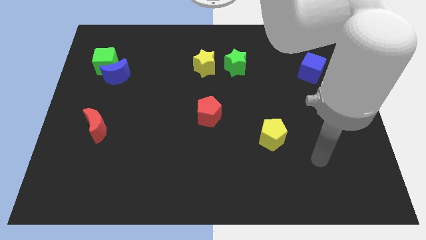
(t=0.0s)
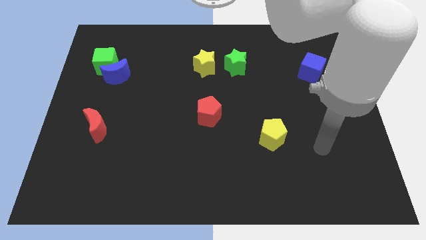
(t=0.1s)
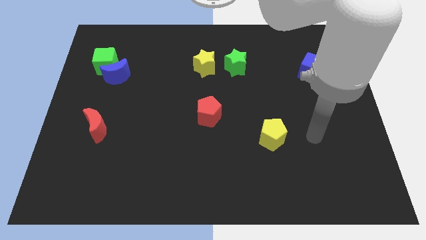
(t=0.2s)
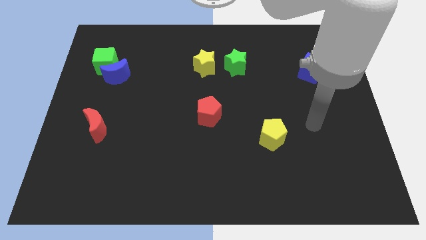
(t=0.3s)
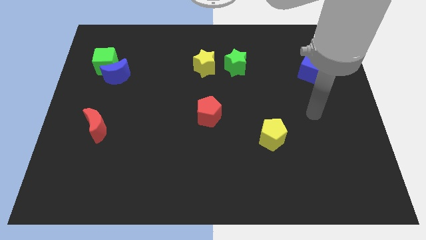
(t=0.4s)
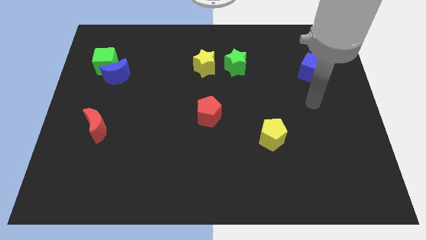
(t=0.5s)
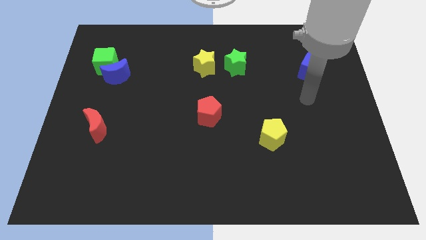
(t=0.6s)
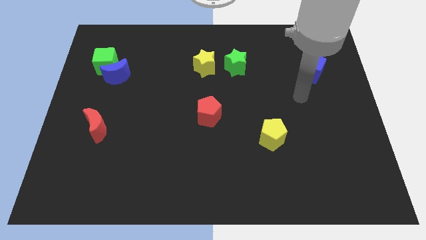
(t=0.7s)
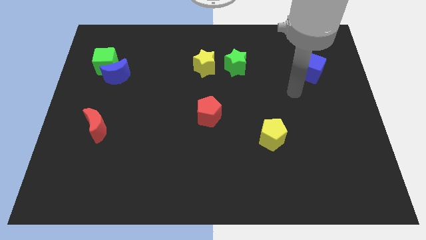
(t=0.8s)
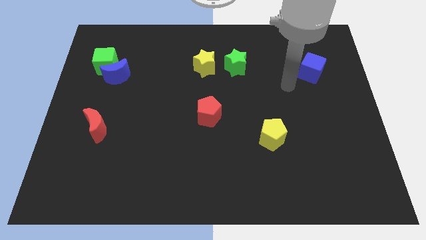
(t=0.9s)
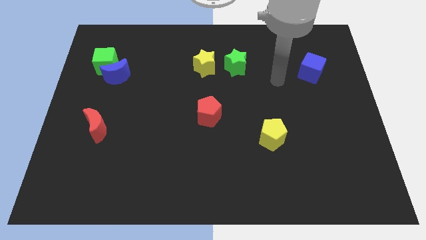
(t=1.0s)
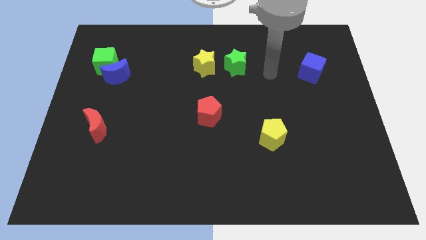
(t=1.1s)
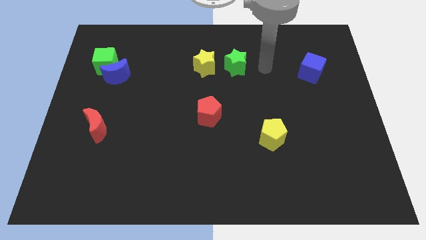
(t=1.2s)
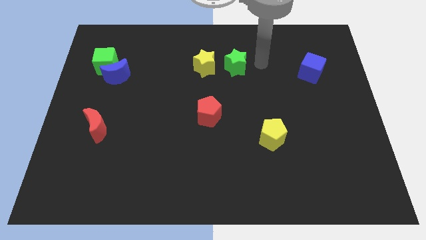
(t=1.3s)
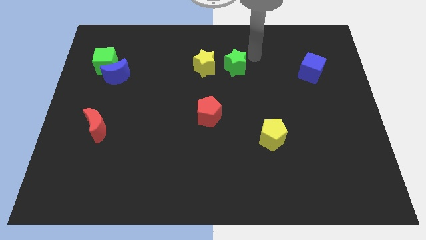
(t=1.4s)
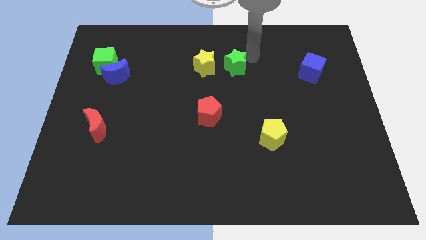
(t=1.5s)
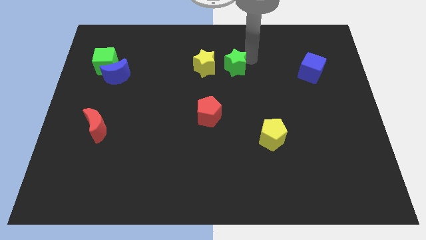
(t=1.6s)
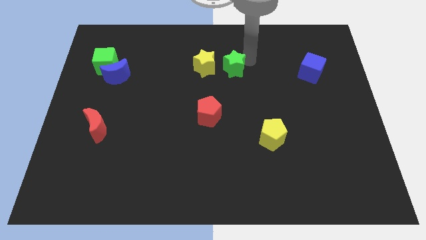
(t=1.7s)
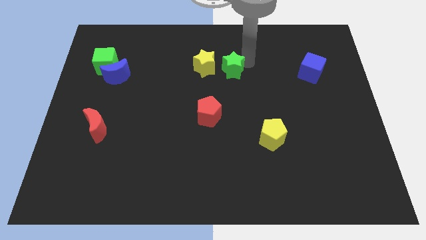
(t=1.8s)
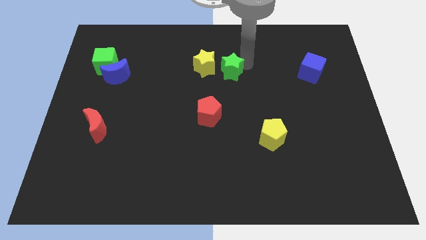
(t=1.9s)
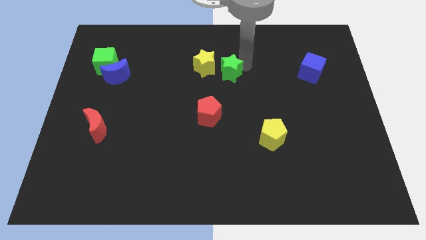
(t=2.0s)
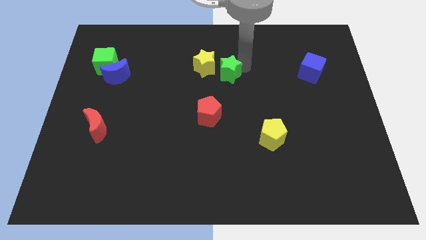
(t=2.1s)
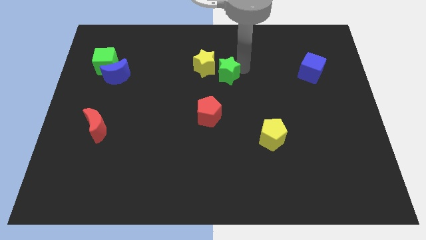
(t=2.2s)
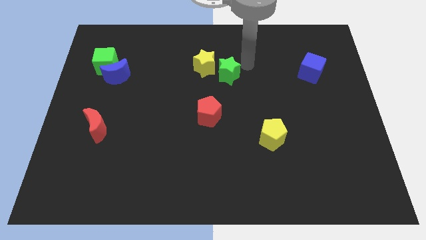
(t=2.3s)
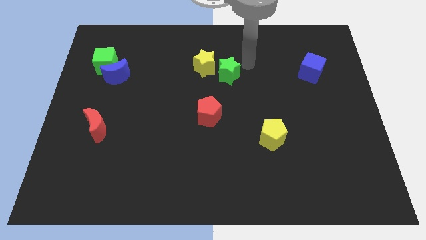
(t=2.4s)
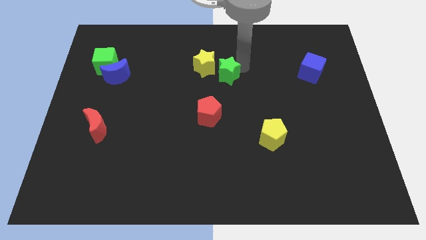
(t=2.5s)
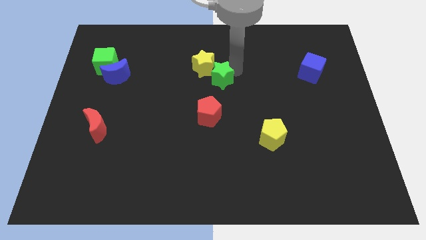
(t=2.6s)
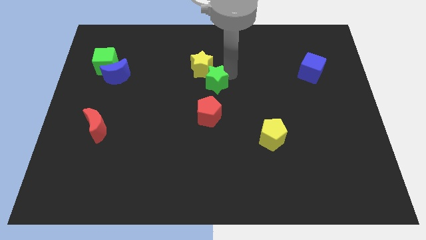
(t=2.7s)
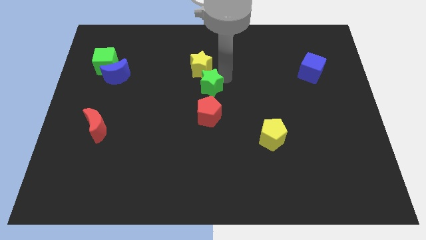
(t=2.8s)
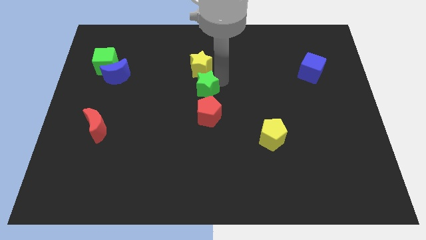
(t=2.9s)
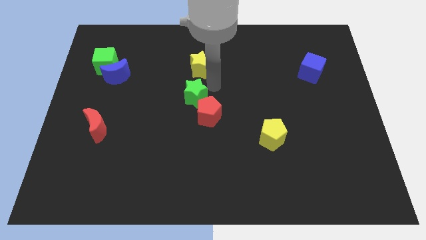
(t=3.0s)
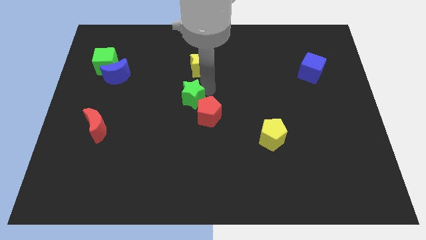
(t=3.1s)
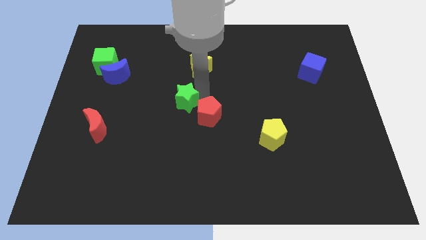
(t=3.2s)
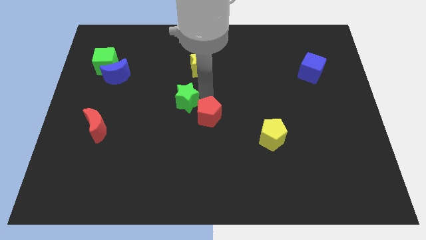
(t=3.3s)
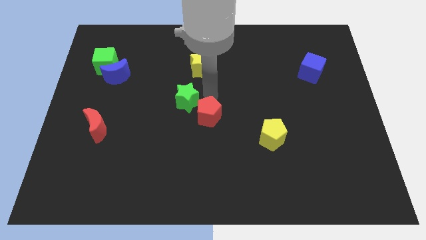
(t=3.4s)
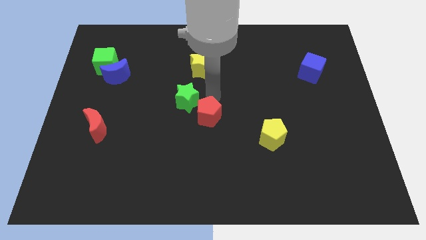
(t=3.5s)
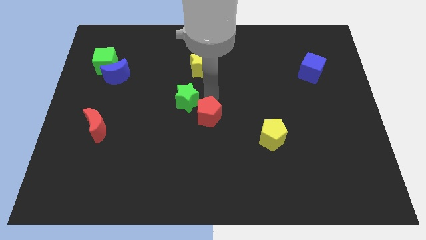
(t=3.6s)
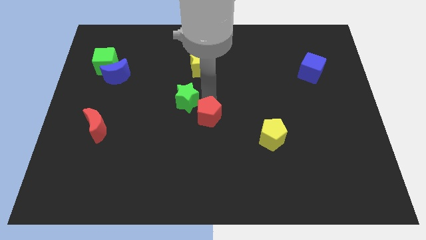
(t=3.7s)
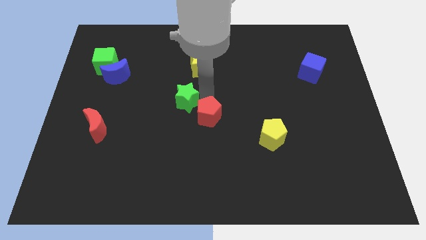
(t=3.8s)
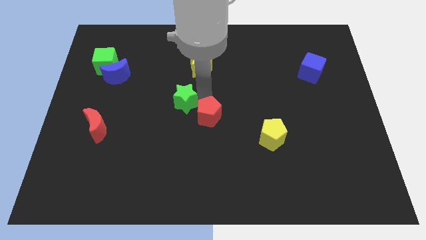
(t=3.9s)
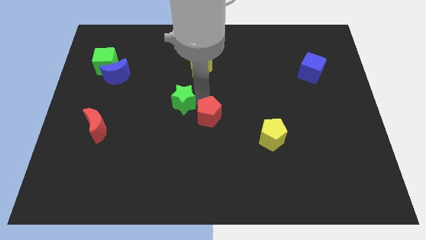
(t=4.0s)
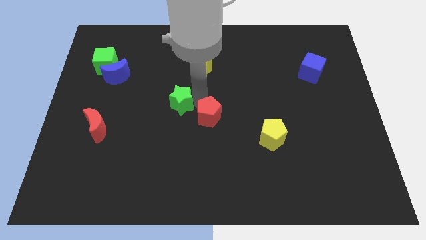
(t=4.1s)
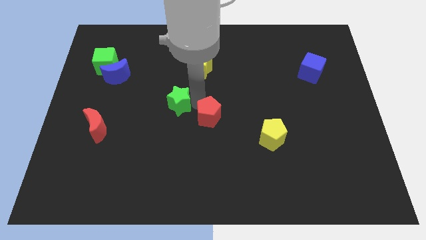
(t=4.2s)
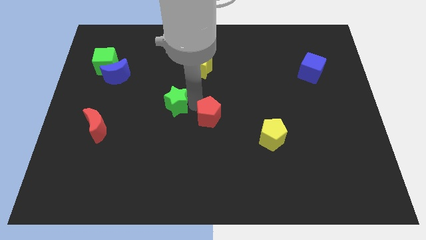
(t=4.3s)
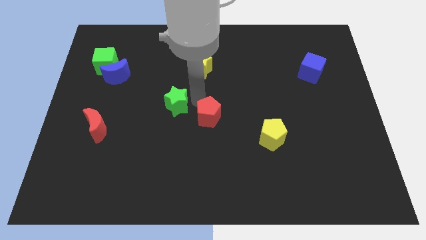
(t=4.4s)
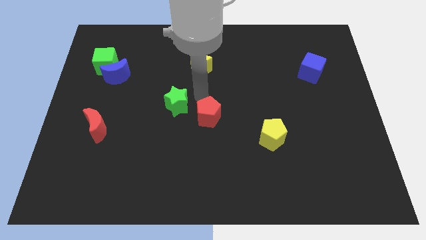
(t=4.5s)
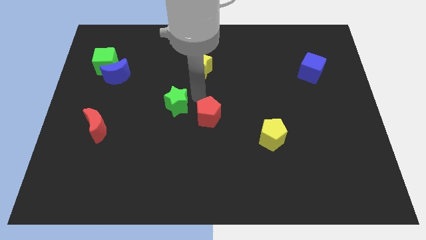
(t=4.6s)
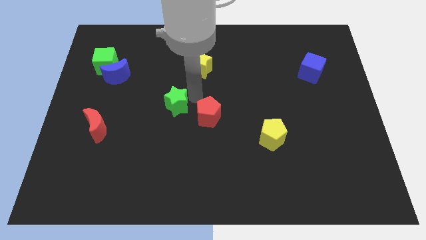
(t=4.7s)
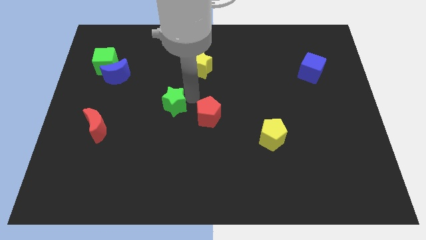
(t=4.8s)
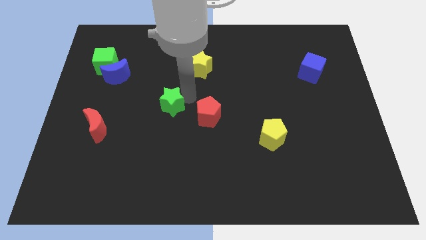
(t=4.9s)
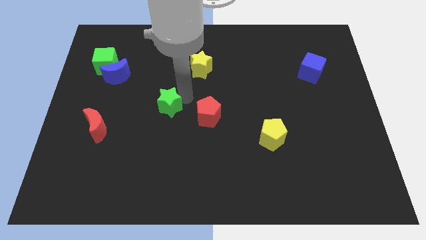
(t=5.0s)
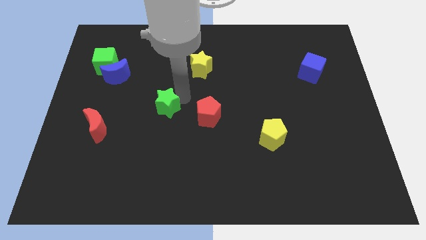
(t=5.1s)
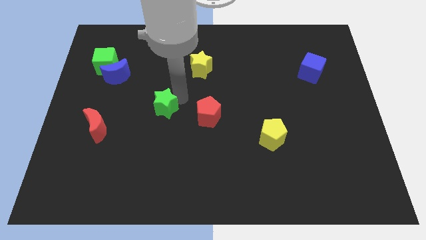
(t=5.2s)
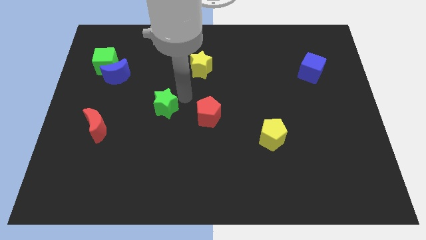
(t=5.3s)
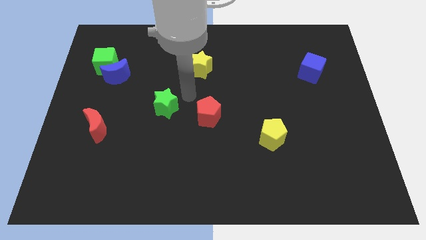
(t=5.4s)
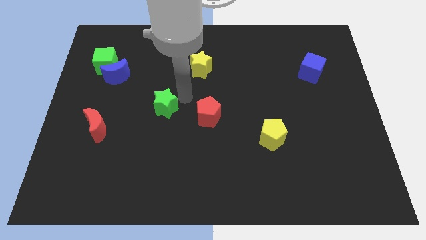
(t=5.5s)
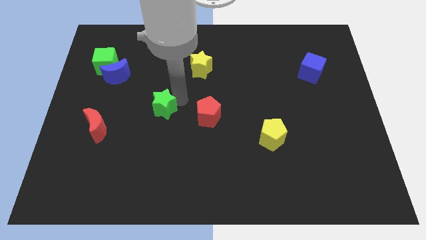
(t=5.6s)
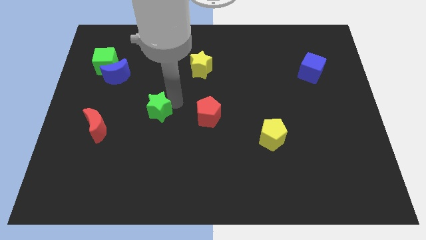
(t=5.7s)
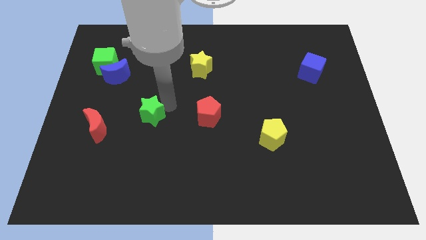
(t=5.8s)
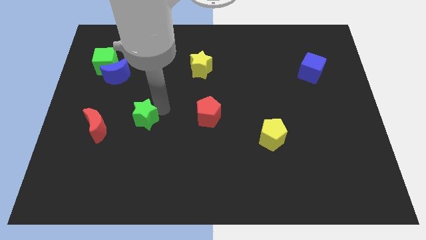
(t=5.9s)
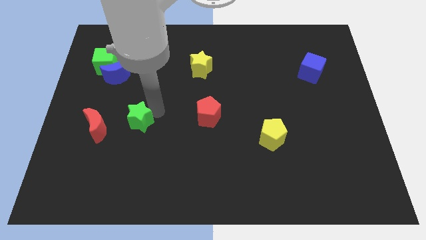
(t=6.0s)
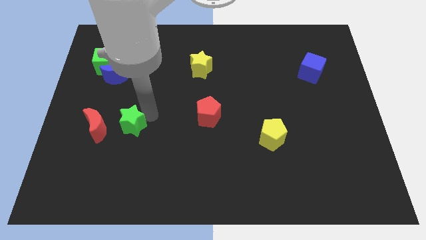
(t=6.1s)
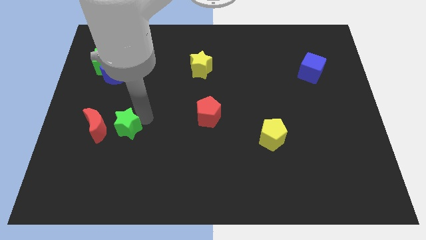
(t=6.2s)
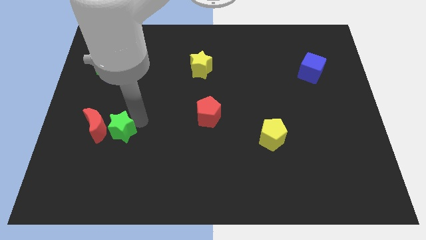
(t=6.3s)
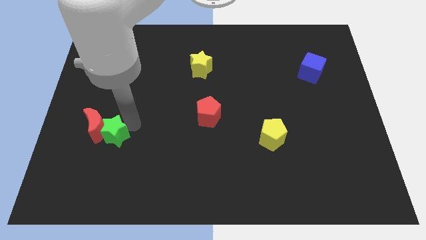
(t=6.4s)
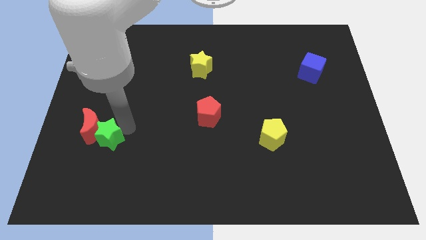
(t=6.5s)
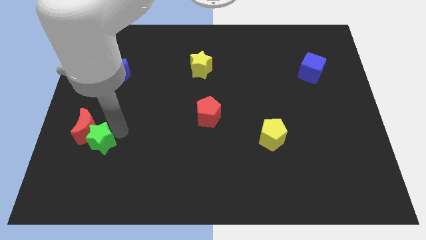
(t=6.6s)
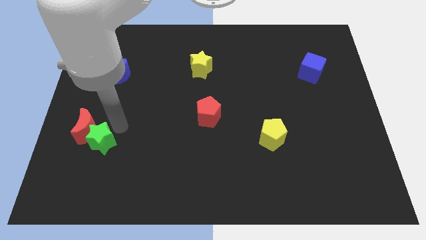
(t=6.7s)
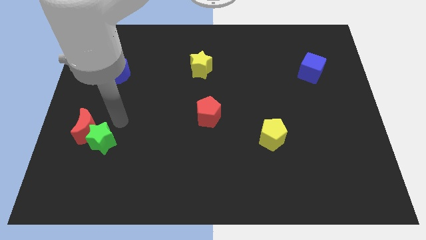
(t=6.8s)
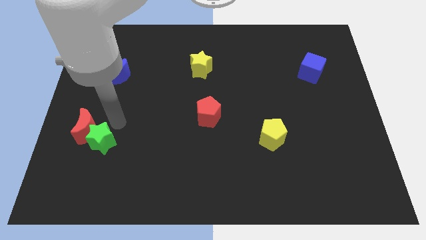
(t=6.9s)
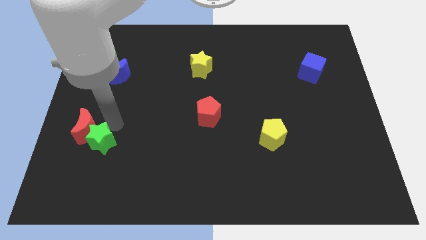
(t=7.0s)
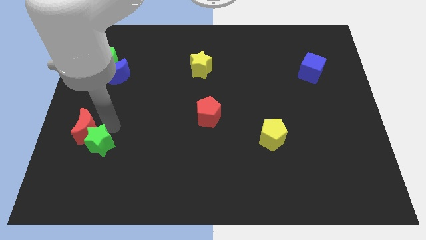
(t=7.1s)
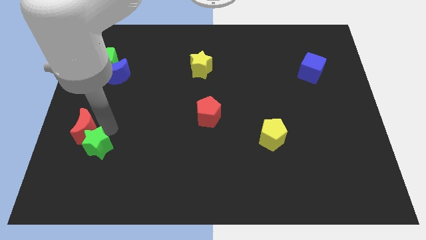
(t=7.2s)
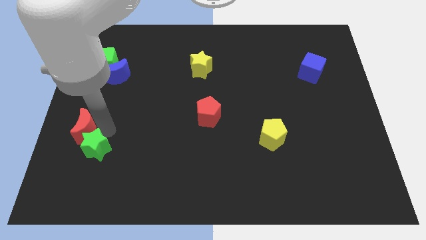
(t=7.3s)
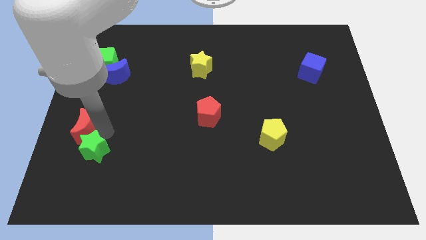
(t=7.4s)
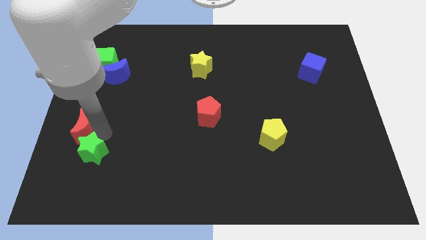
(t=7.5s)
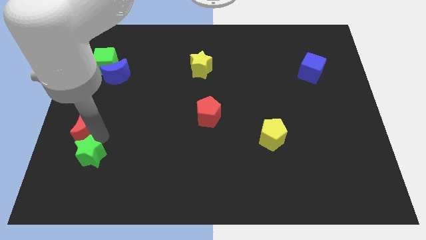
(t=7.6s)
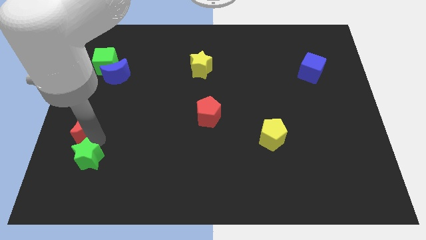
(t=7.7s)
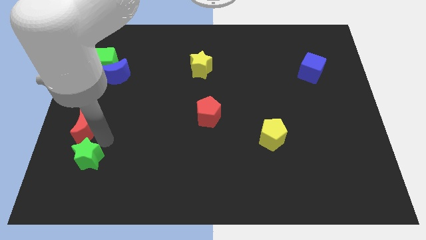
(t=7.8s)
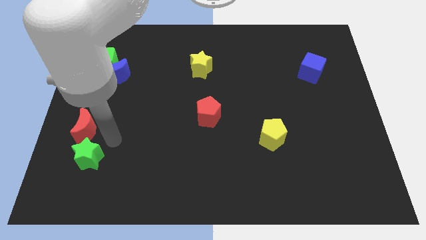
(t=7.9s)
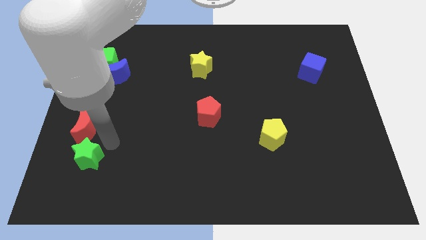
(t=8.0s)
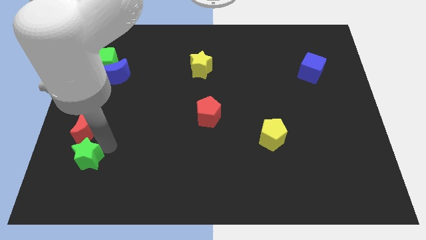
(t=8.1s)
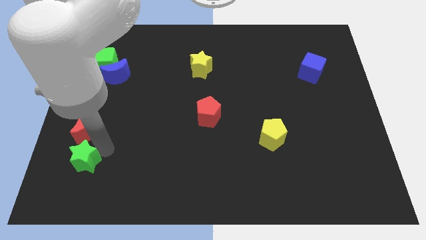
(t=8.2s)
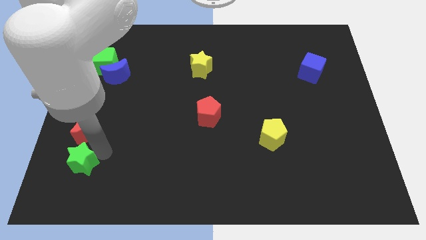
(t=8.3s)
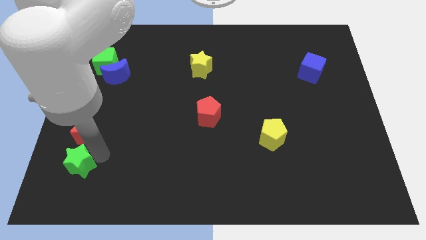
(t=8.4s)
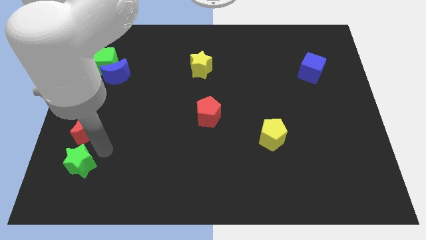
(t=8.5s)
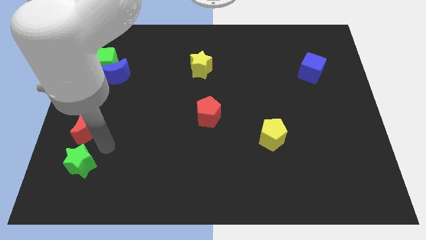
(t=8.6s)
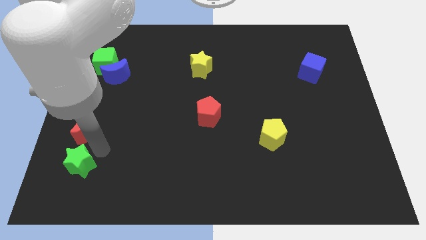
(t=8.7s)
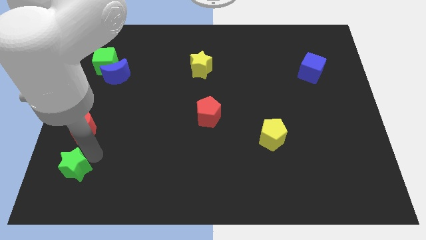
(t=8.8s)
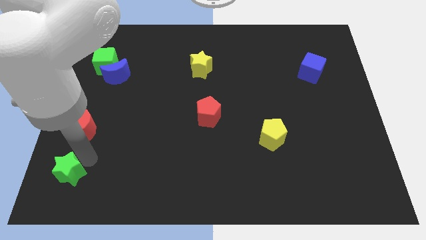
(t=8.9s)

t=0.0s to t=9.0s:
put the green star to the bottom left
